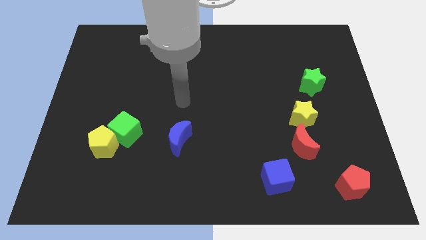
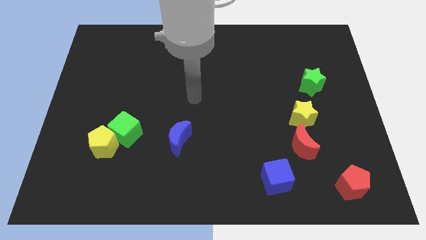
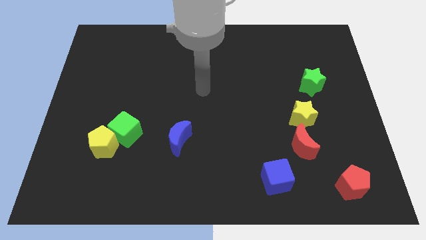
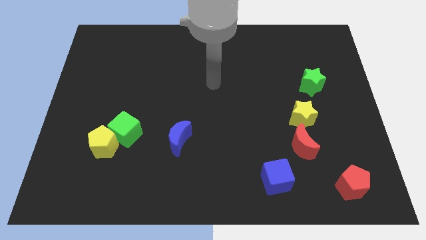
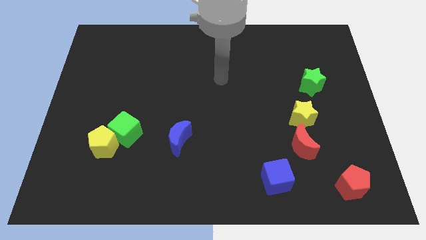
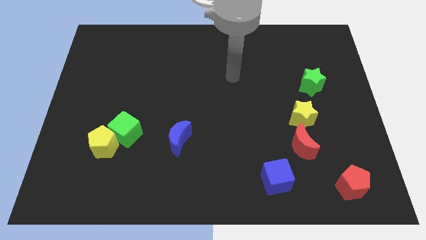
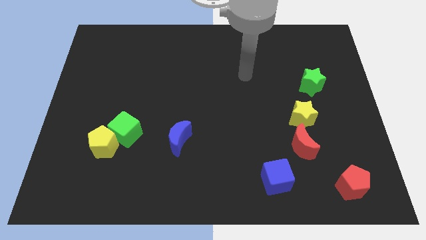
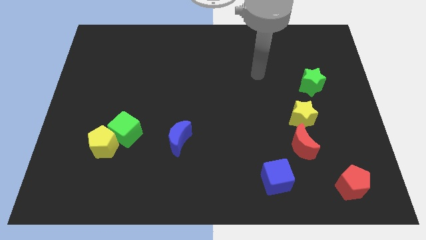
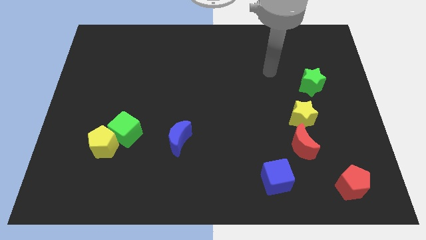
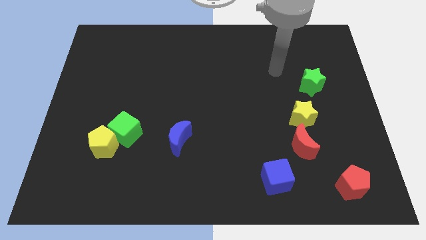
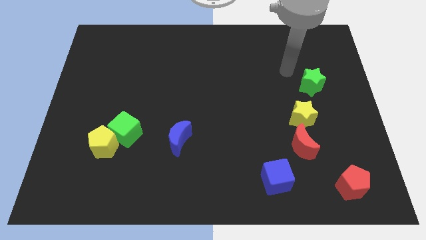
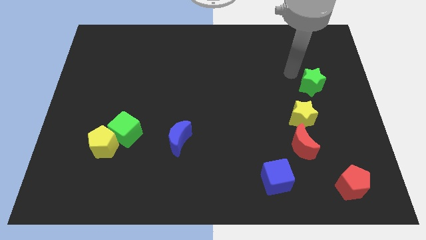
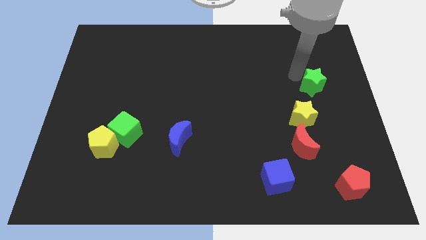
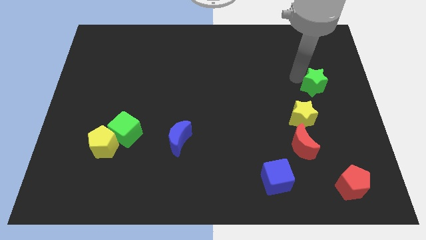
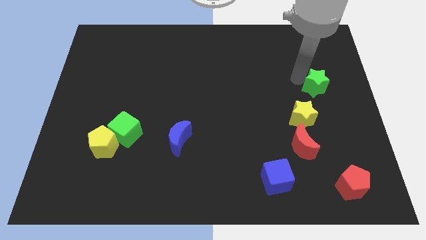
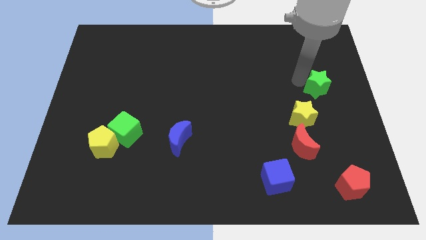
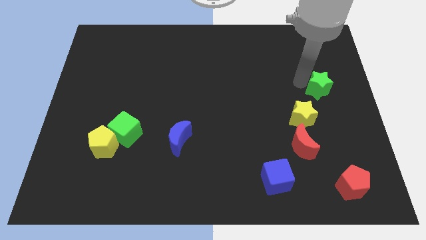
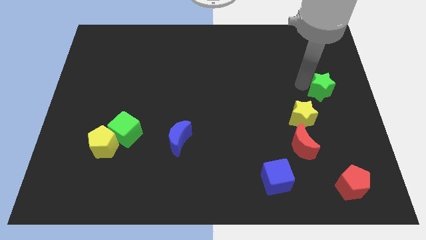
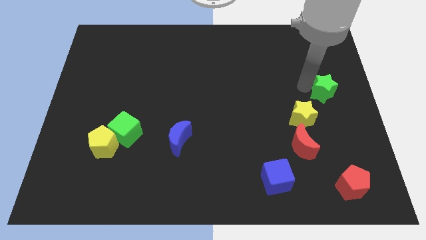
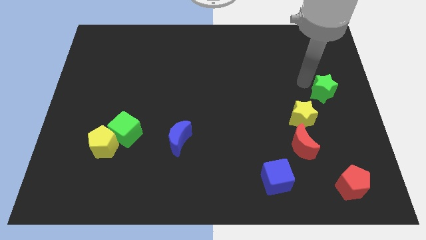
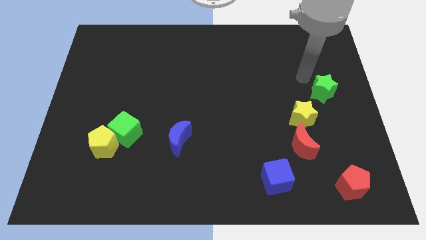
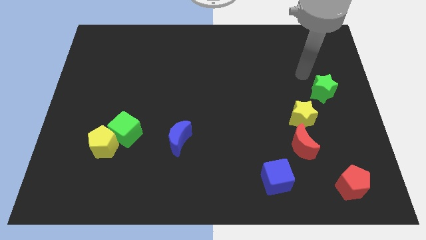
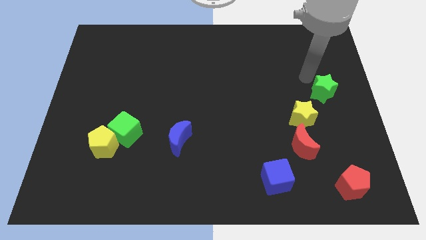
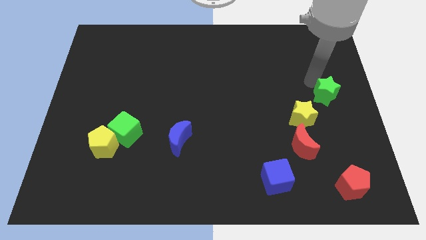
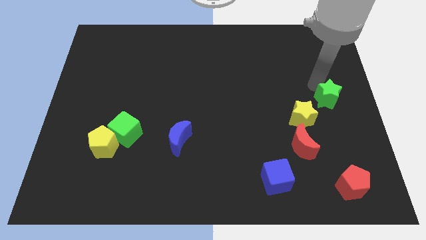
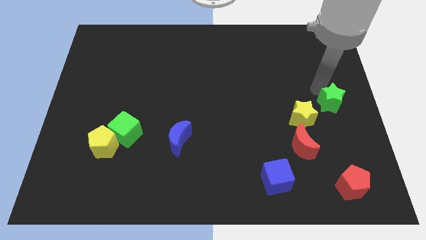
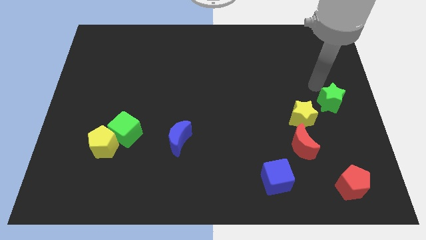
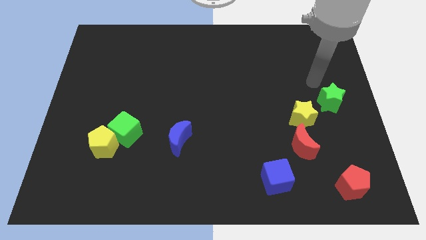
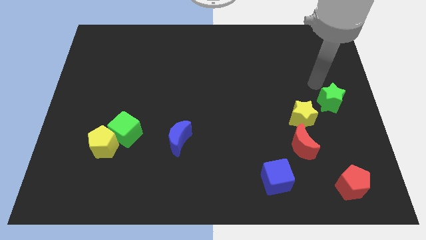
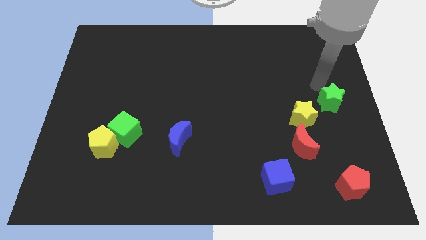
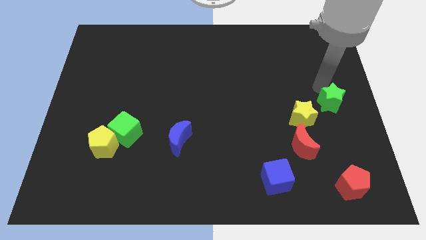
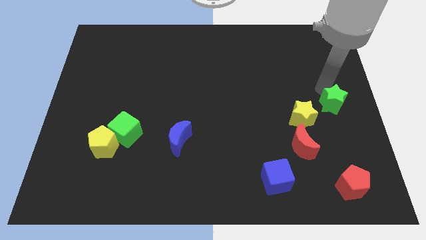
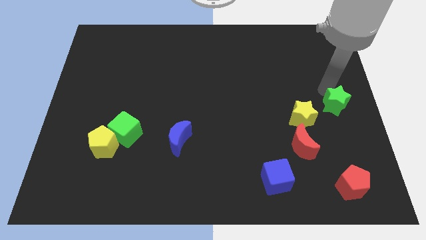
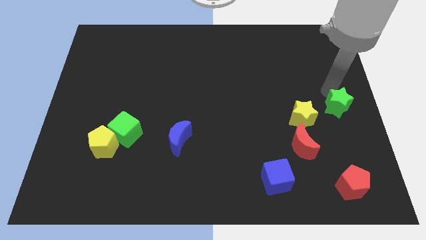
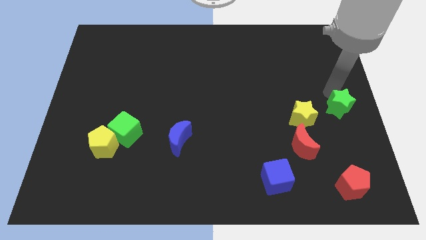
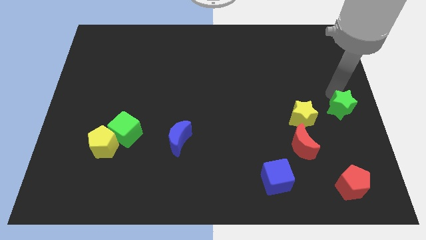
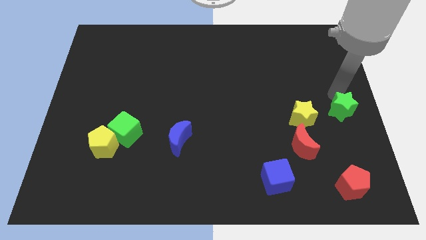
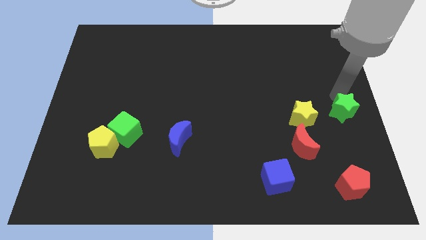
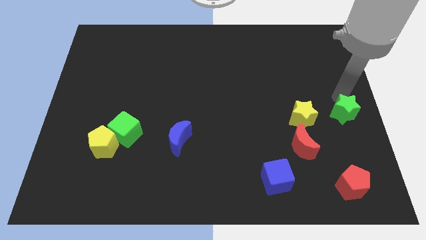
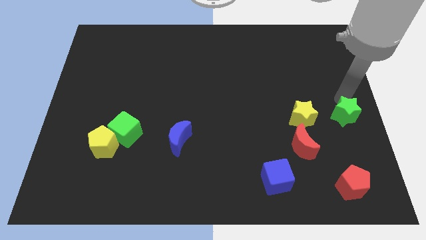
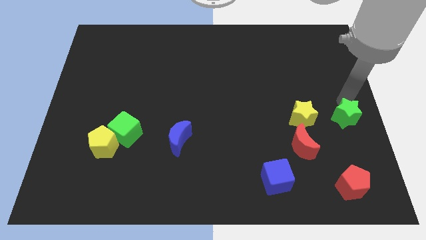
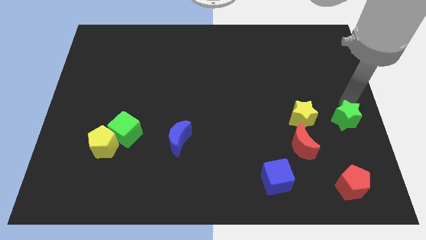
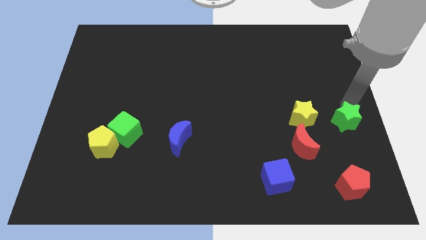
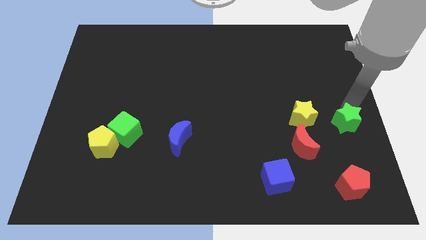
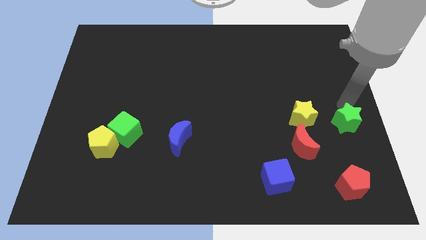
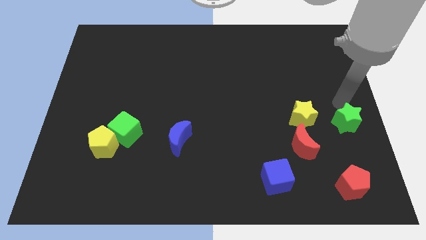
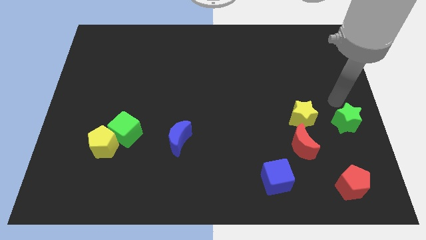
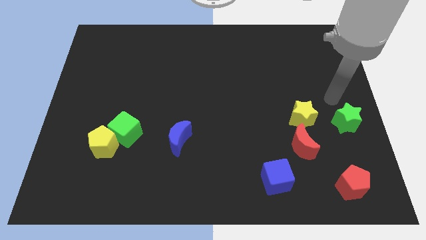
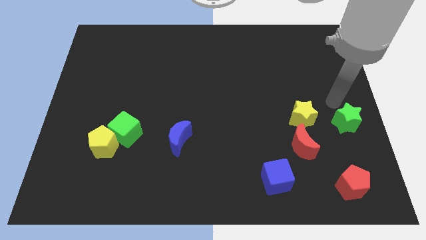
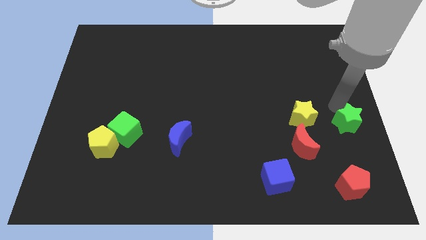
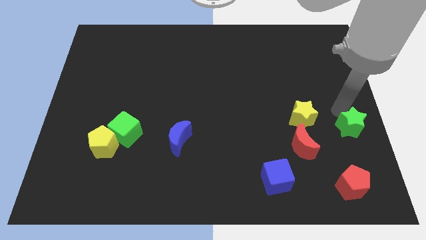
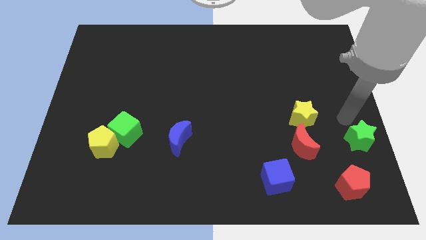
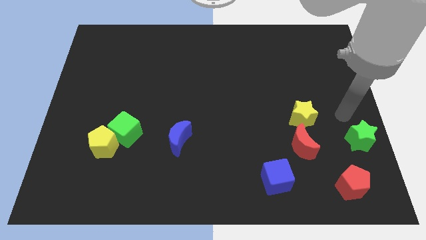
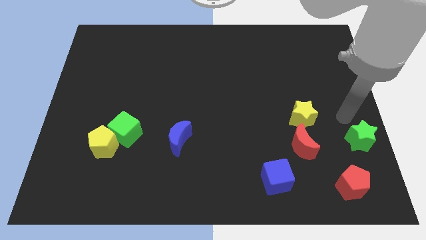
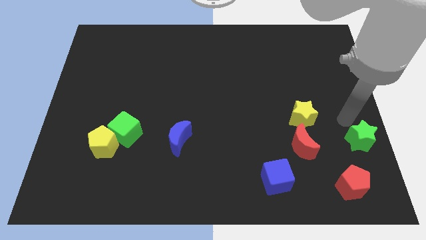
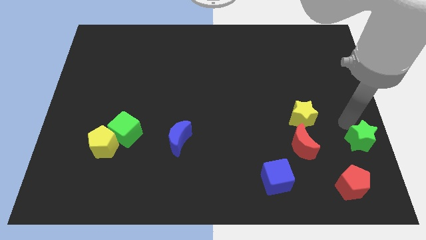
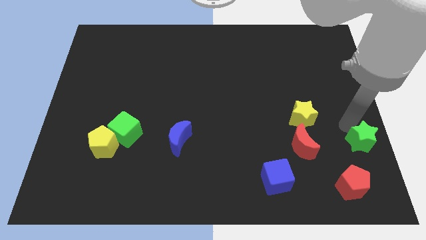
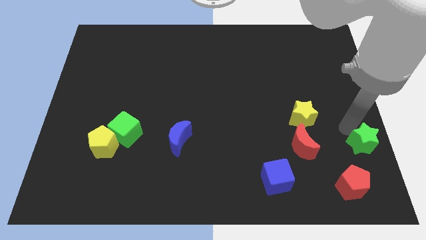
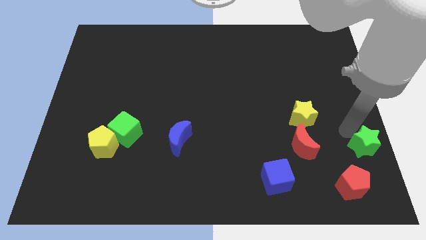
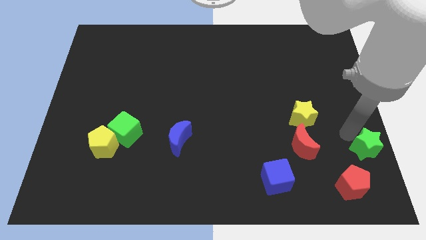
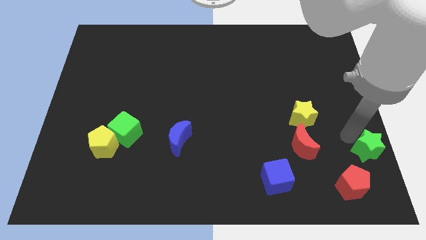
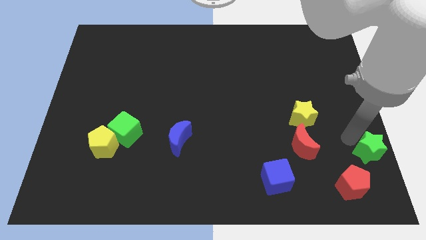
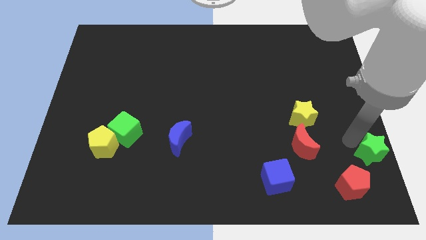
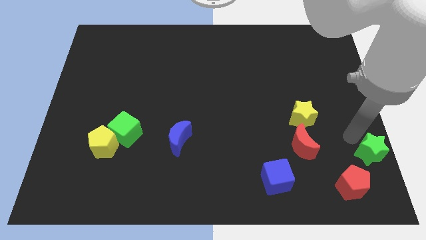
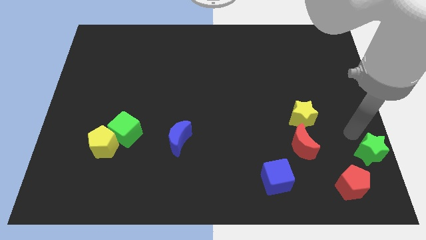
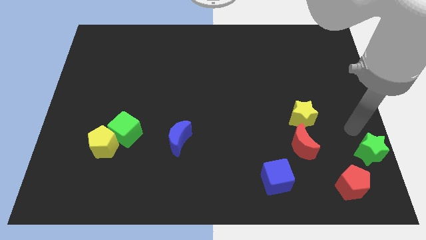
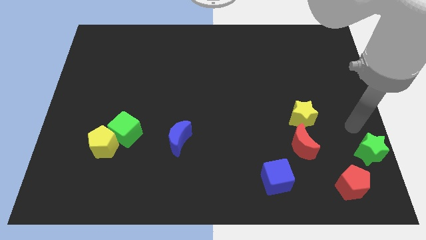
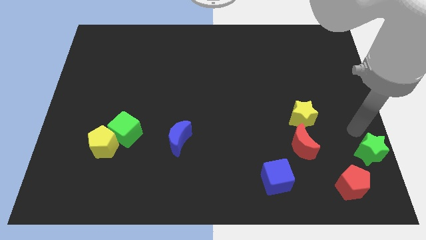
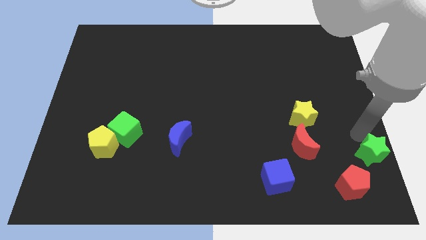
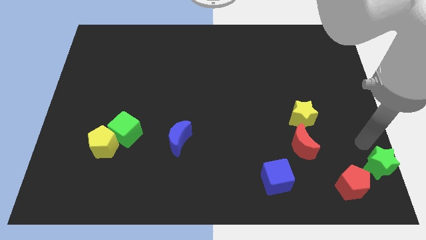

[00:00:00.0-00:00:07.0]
slide the green star to the bottom right
